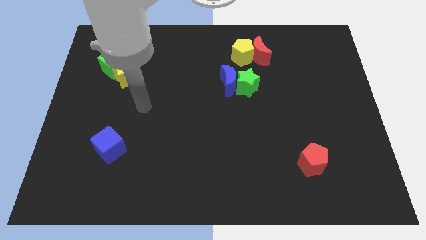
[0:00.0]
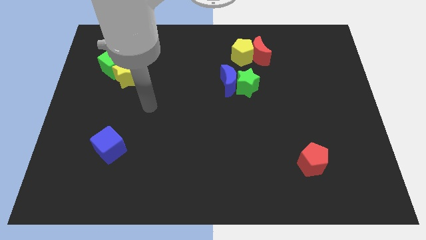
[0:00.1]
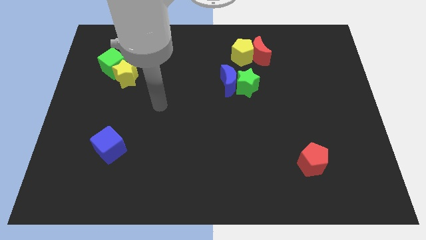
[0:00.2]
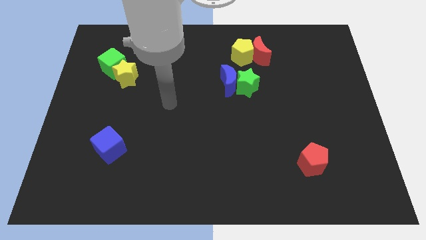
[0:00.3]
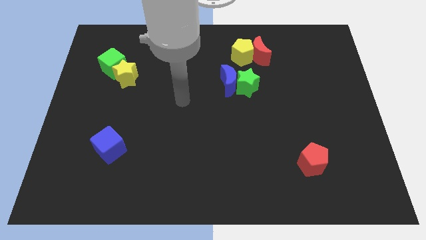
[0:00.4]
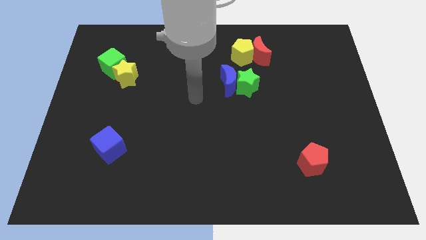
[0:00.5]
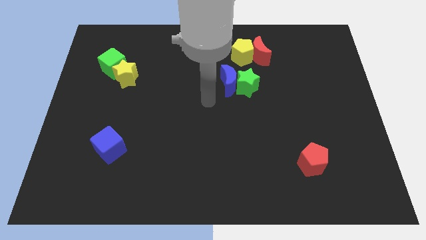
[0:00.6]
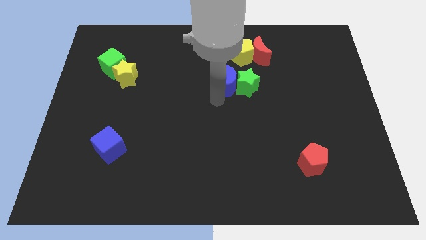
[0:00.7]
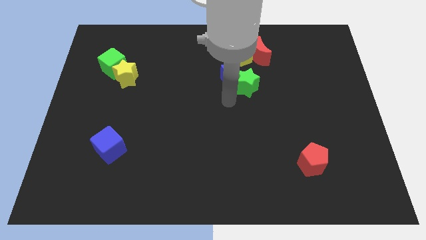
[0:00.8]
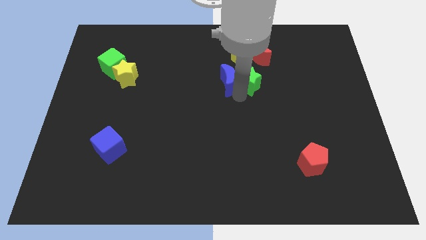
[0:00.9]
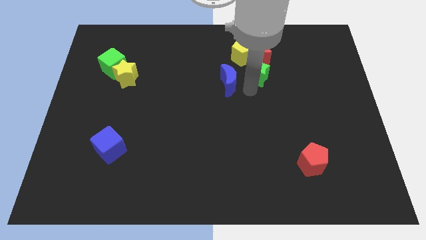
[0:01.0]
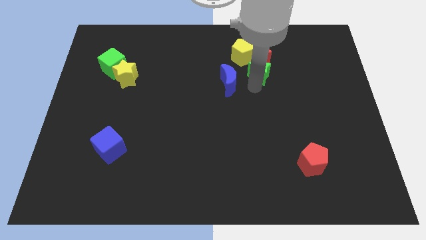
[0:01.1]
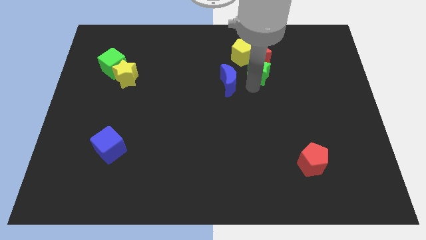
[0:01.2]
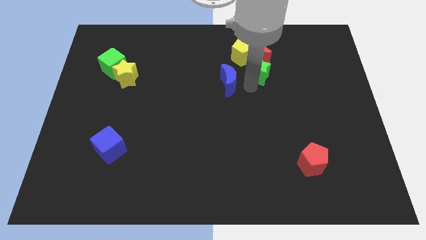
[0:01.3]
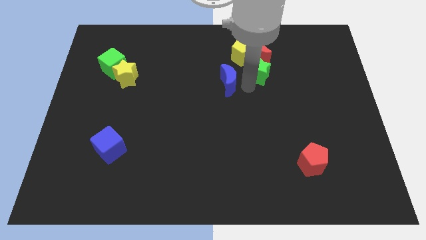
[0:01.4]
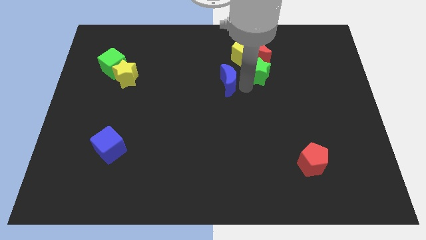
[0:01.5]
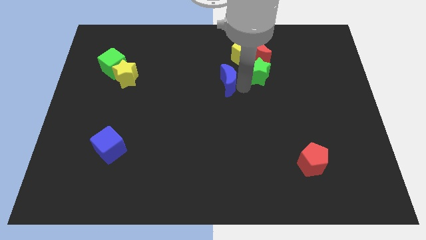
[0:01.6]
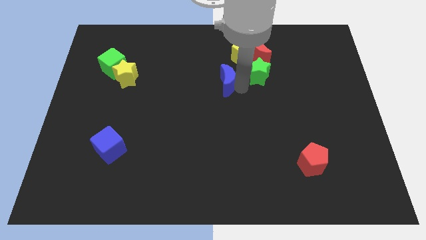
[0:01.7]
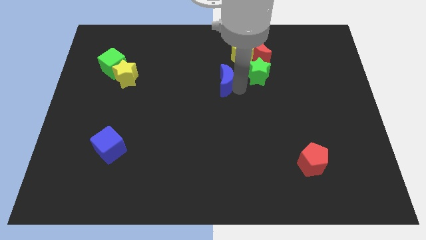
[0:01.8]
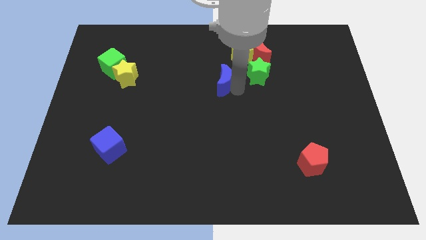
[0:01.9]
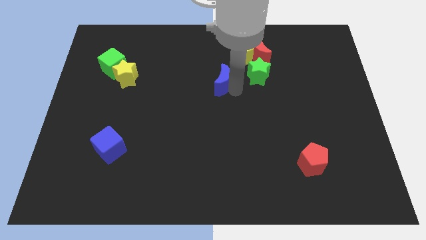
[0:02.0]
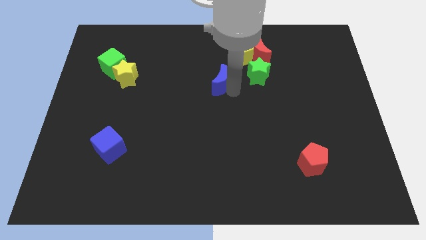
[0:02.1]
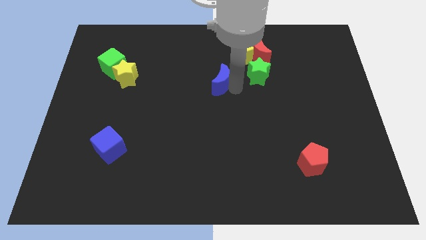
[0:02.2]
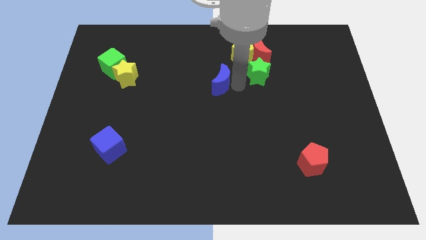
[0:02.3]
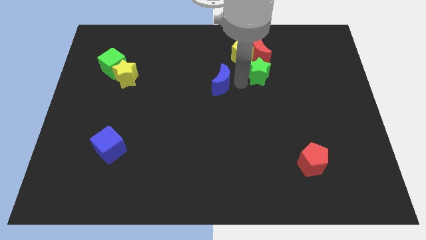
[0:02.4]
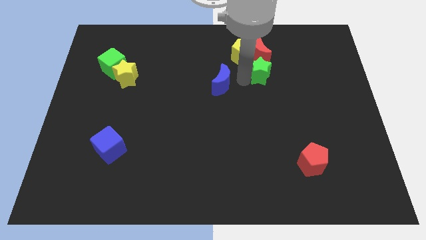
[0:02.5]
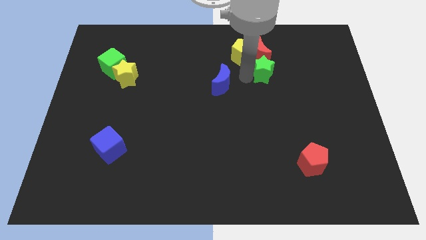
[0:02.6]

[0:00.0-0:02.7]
separate the blue moon from the green star

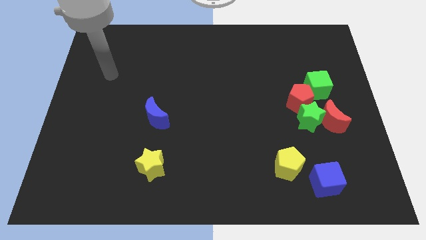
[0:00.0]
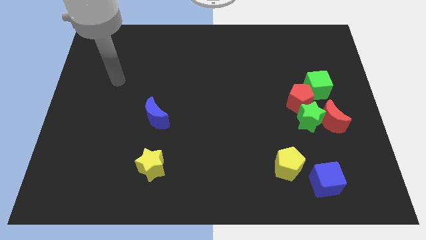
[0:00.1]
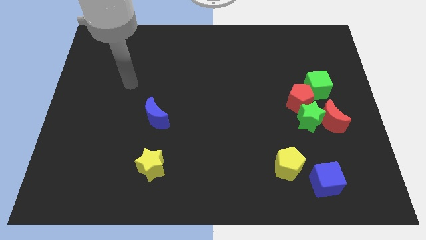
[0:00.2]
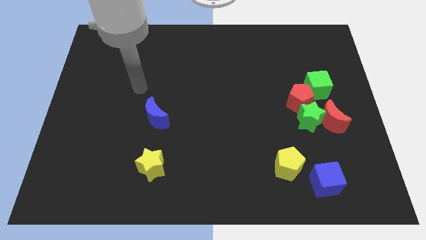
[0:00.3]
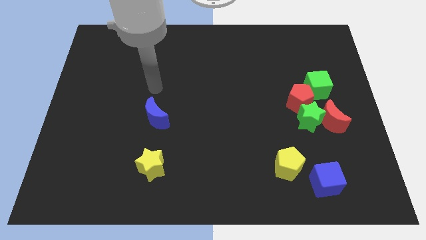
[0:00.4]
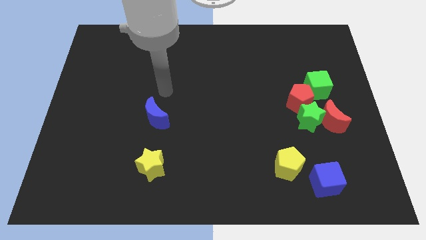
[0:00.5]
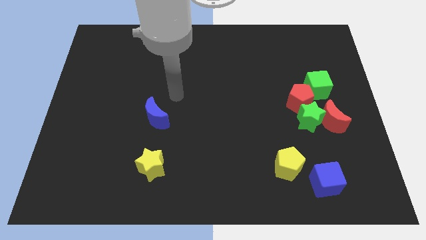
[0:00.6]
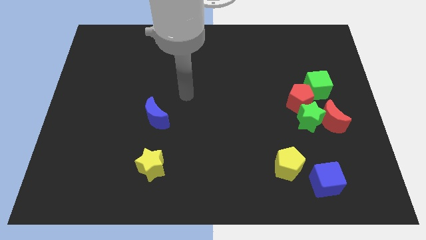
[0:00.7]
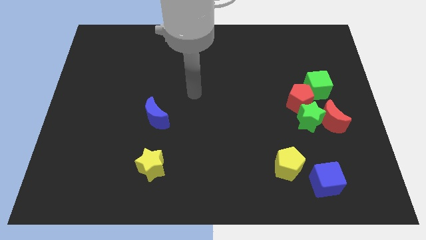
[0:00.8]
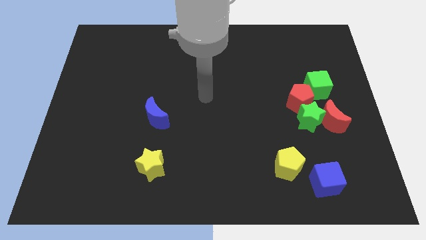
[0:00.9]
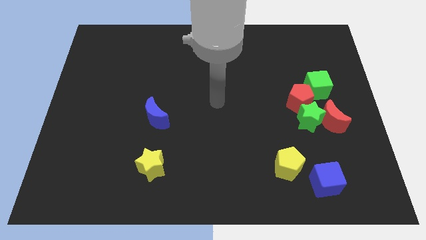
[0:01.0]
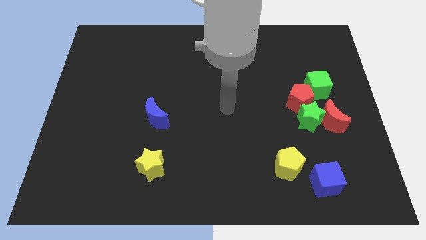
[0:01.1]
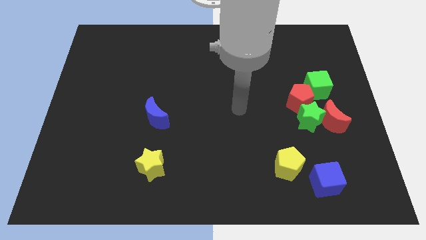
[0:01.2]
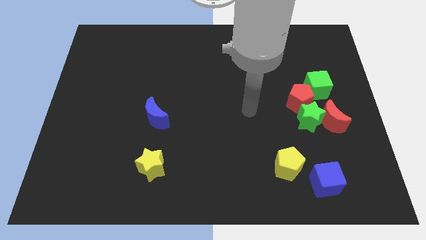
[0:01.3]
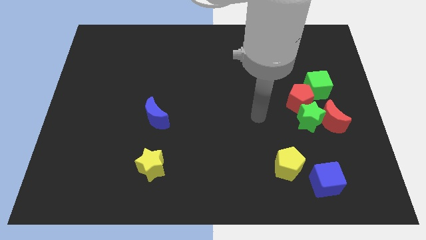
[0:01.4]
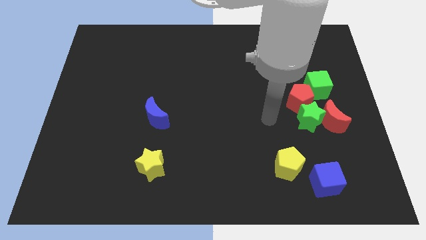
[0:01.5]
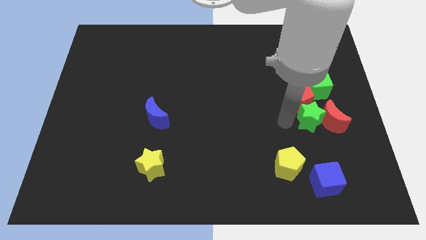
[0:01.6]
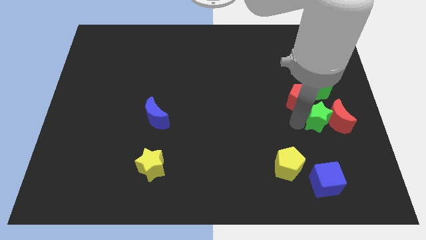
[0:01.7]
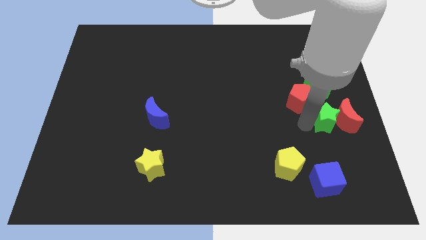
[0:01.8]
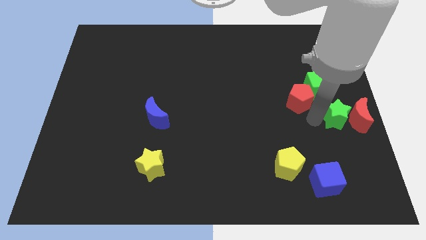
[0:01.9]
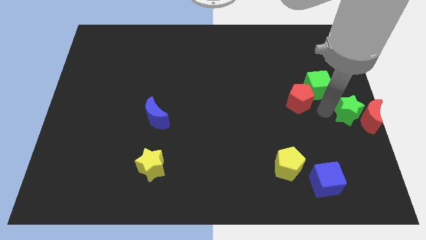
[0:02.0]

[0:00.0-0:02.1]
separate the red pentagon from the green star, green cube, and red moon

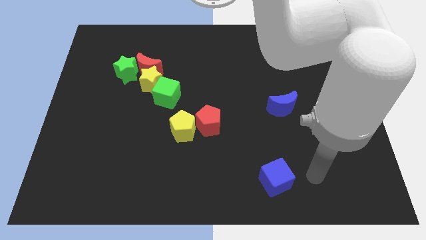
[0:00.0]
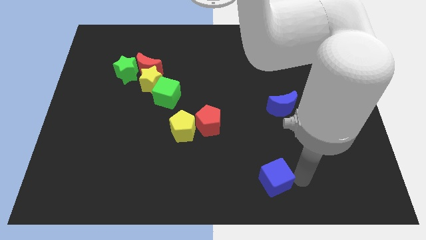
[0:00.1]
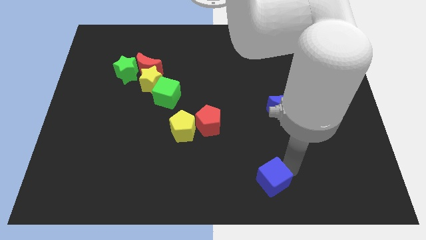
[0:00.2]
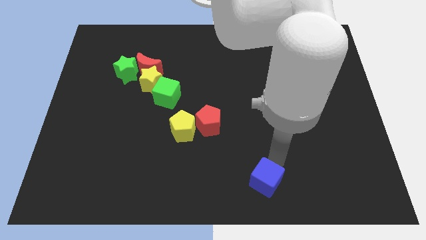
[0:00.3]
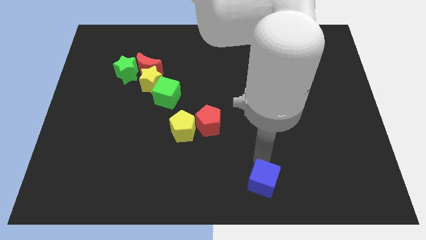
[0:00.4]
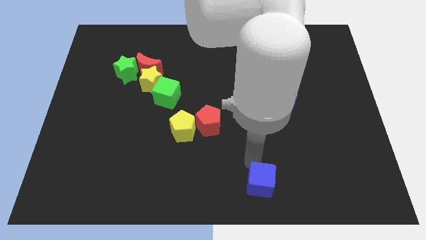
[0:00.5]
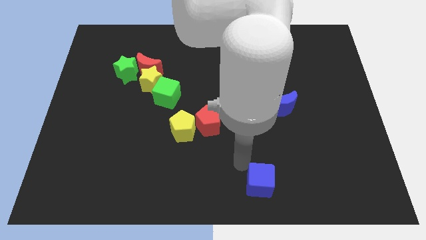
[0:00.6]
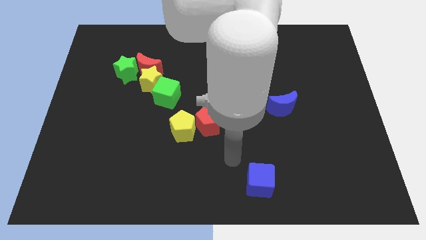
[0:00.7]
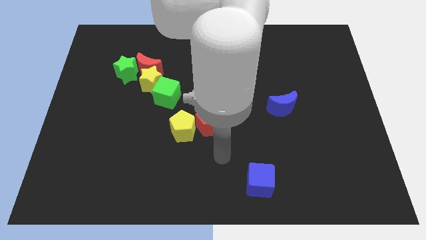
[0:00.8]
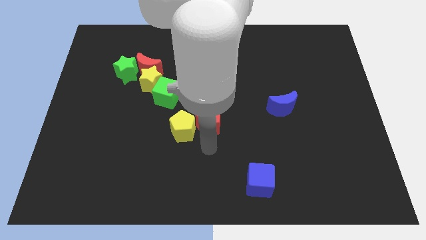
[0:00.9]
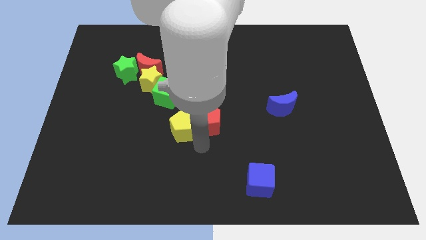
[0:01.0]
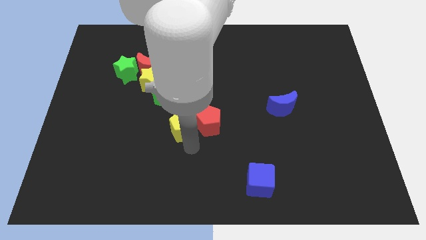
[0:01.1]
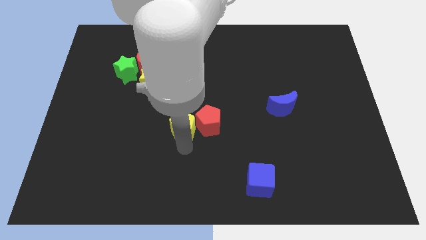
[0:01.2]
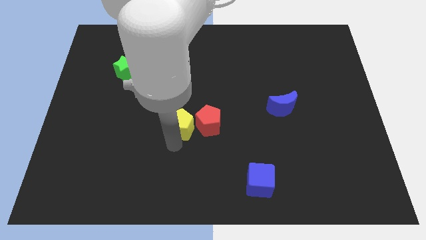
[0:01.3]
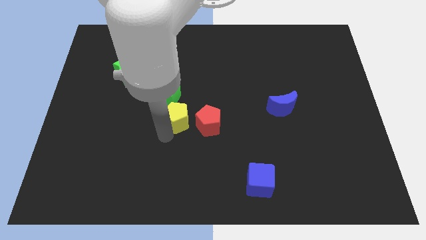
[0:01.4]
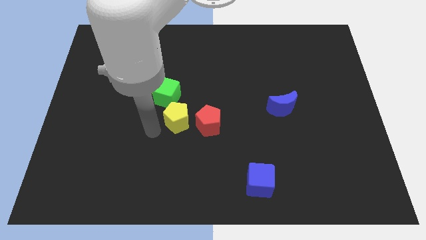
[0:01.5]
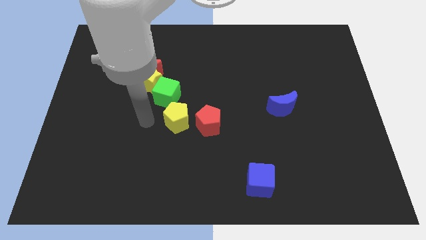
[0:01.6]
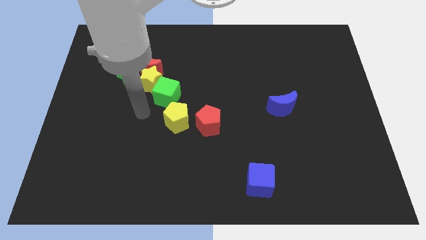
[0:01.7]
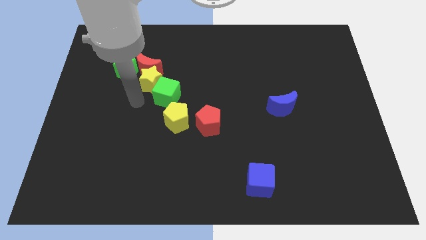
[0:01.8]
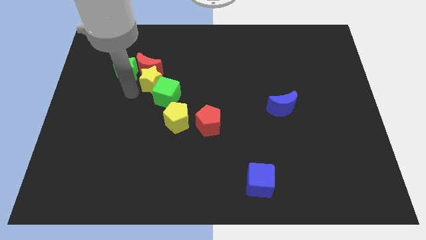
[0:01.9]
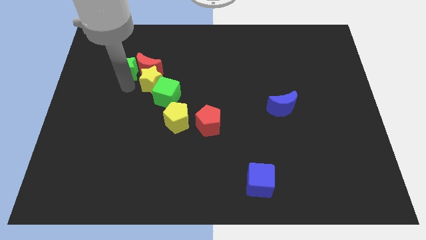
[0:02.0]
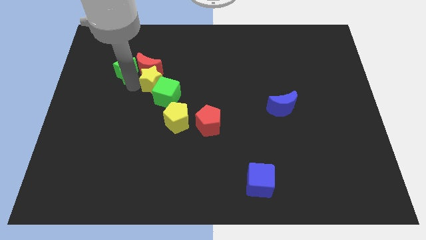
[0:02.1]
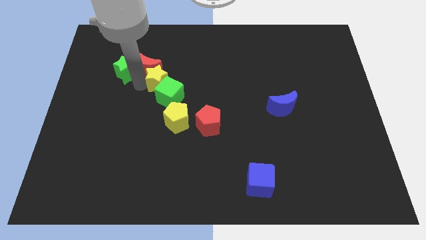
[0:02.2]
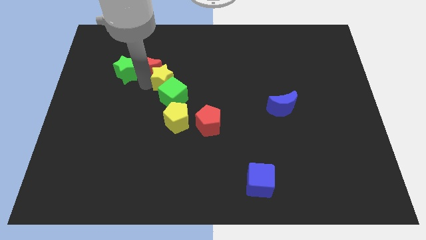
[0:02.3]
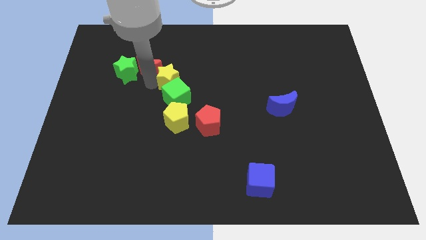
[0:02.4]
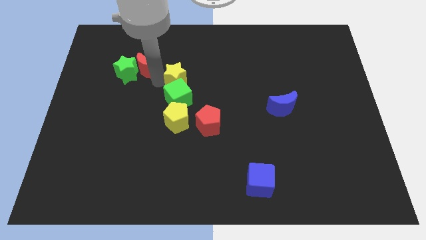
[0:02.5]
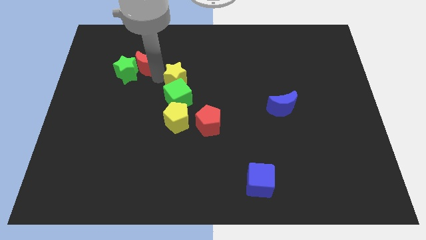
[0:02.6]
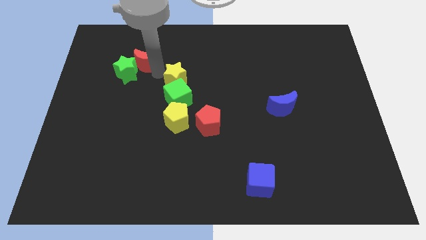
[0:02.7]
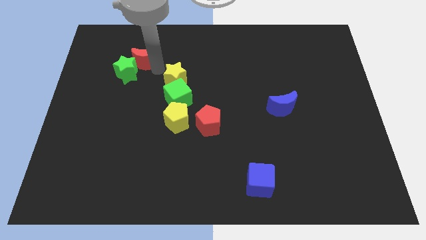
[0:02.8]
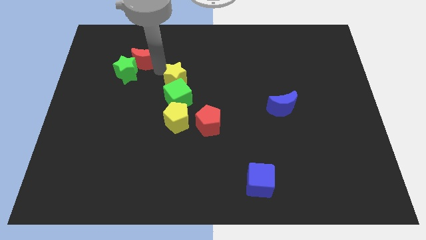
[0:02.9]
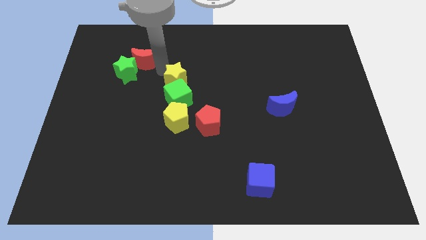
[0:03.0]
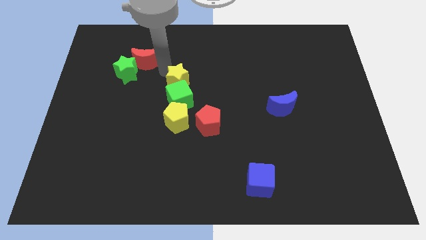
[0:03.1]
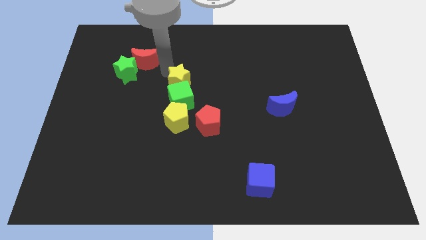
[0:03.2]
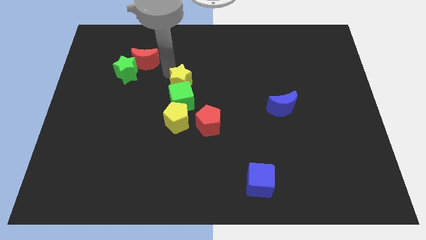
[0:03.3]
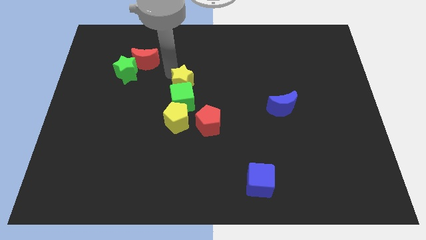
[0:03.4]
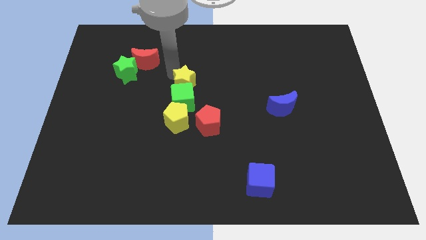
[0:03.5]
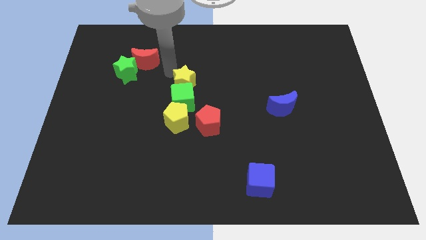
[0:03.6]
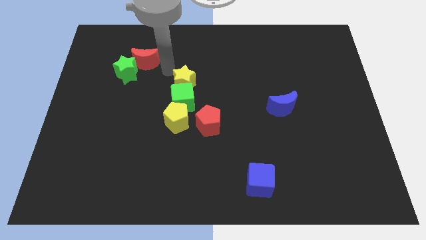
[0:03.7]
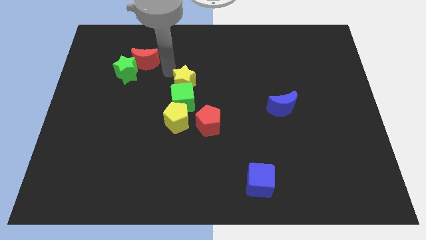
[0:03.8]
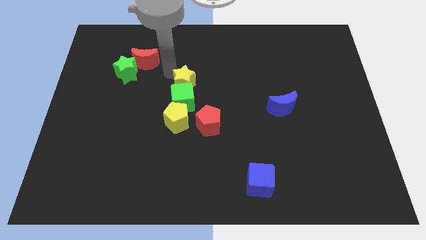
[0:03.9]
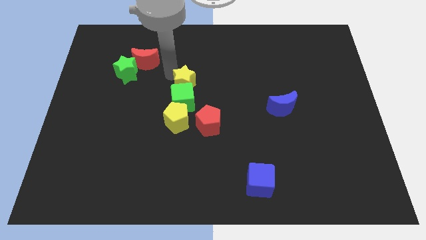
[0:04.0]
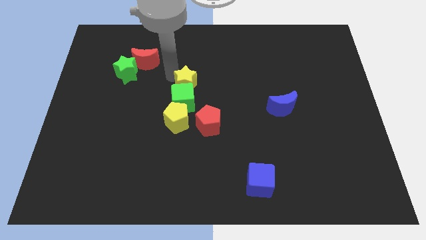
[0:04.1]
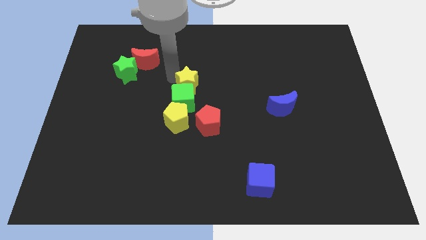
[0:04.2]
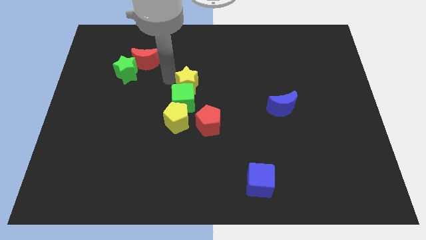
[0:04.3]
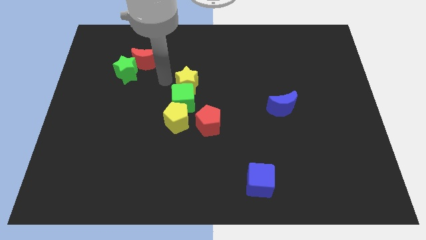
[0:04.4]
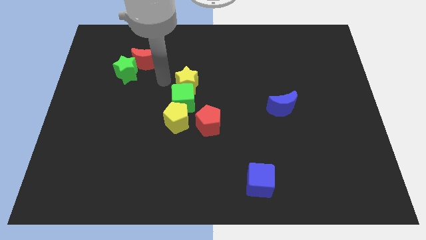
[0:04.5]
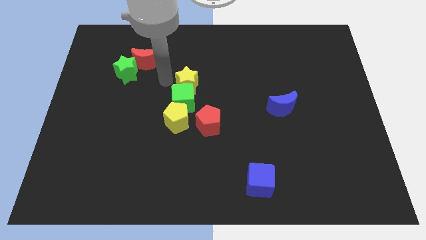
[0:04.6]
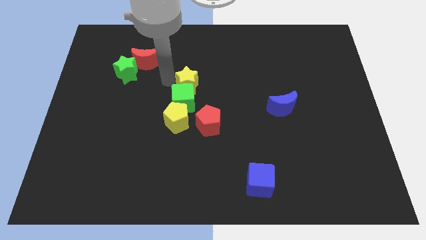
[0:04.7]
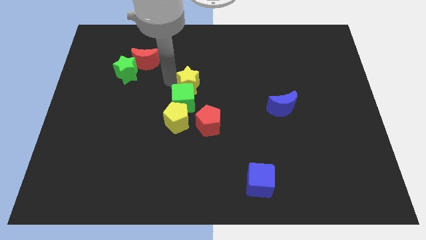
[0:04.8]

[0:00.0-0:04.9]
pull the yellow star apart from the group of blocks
